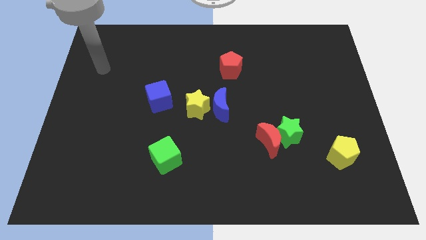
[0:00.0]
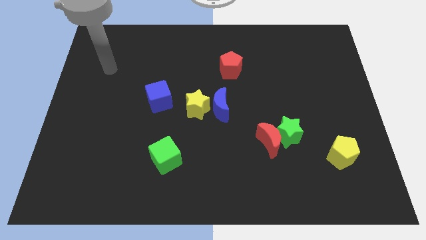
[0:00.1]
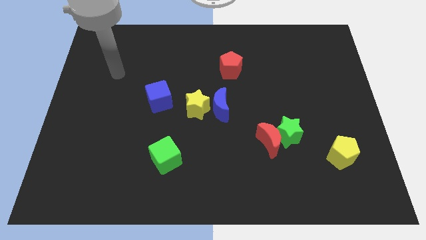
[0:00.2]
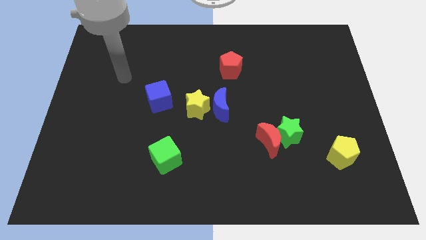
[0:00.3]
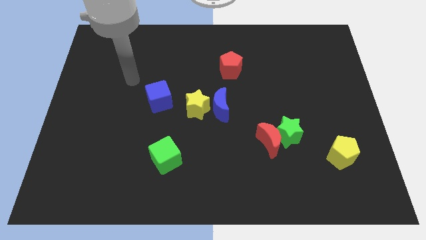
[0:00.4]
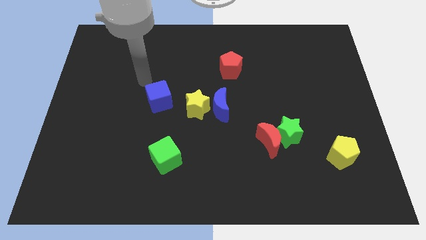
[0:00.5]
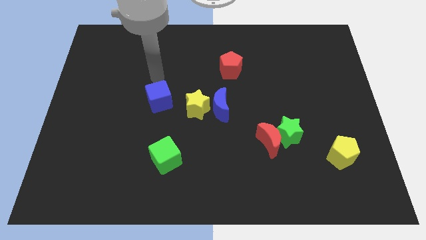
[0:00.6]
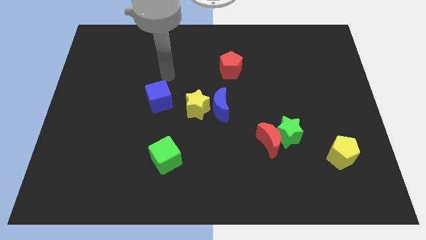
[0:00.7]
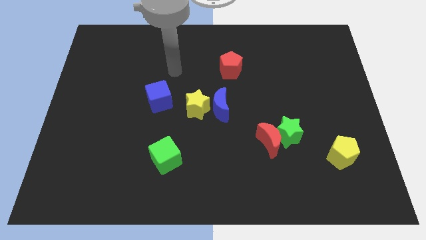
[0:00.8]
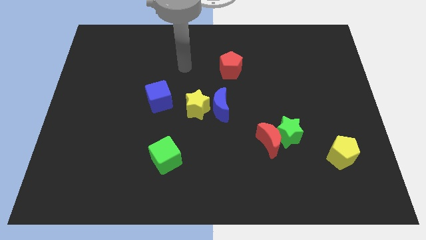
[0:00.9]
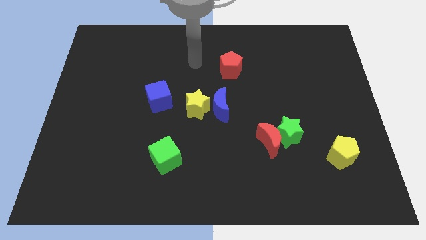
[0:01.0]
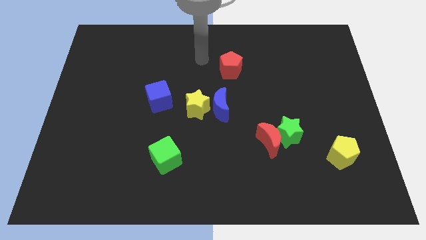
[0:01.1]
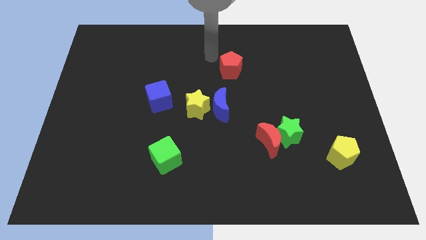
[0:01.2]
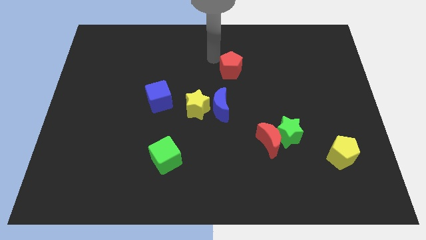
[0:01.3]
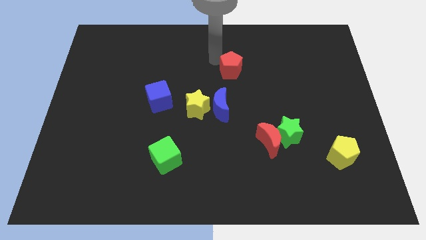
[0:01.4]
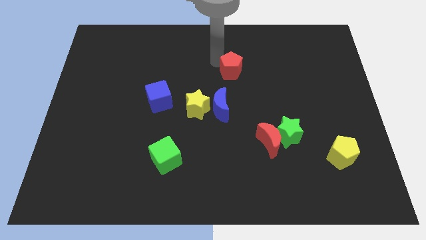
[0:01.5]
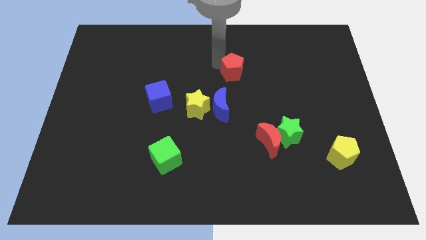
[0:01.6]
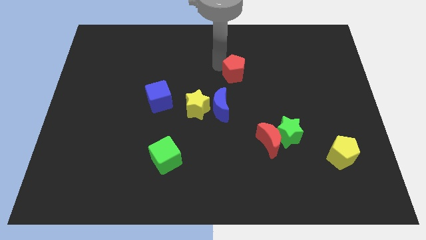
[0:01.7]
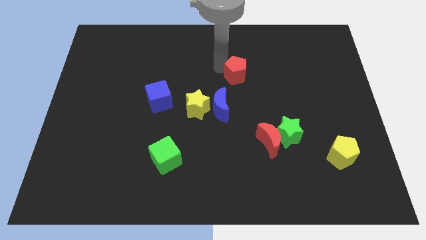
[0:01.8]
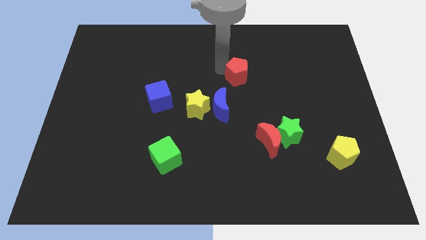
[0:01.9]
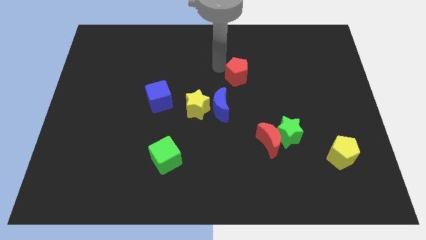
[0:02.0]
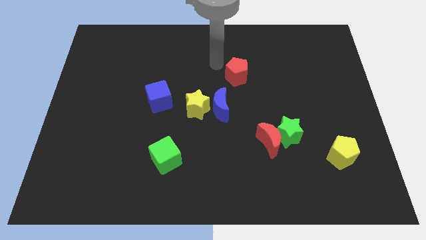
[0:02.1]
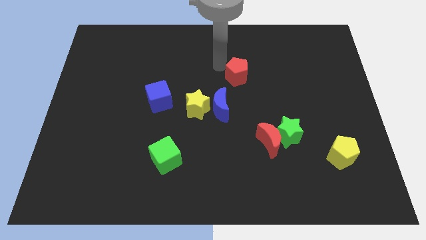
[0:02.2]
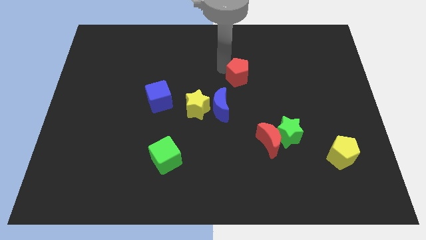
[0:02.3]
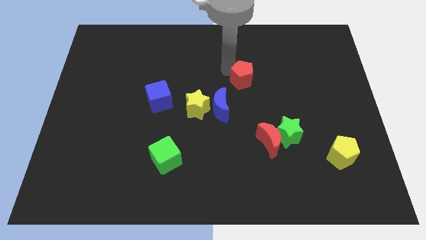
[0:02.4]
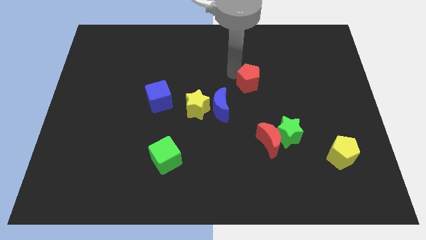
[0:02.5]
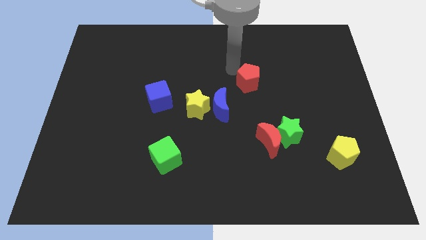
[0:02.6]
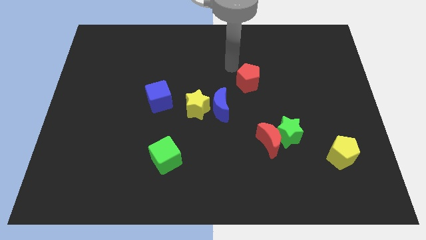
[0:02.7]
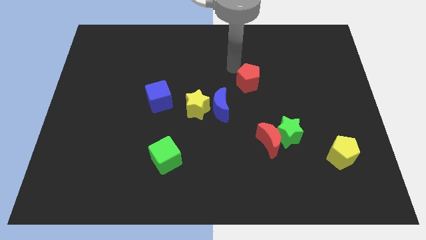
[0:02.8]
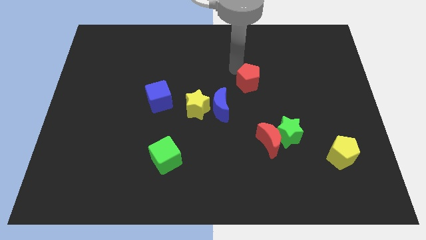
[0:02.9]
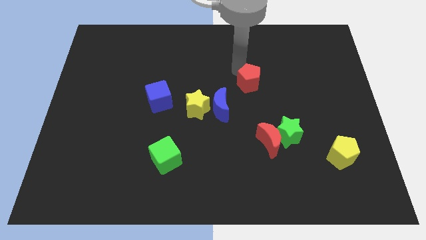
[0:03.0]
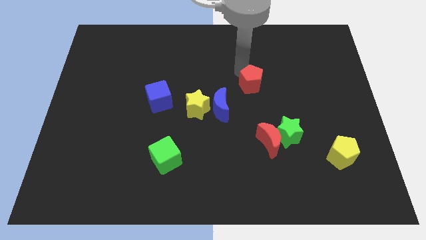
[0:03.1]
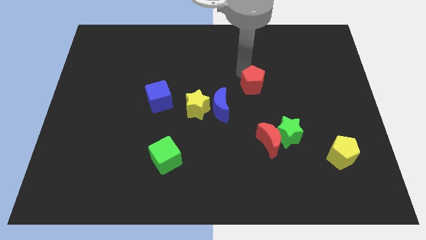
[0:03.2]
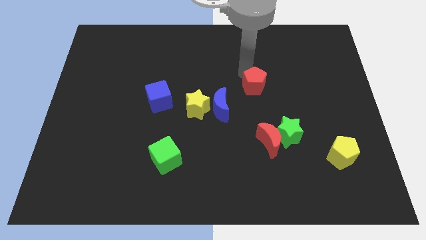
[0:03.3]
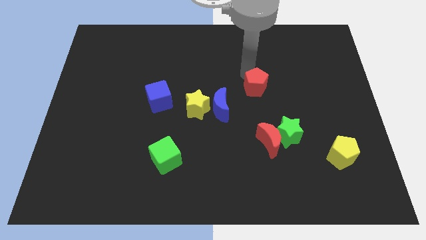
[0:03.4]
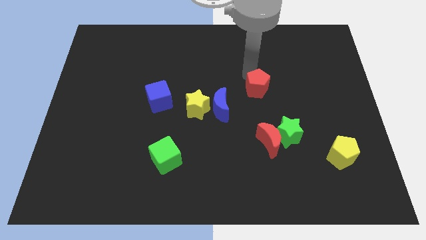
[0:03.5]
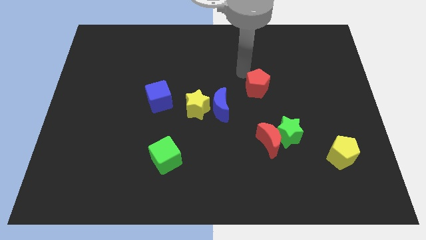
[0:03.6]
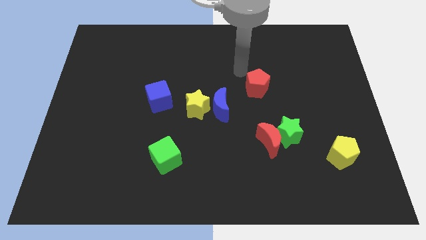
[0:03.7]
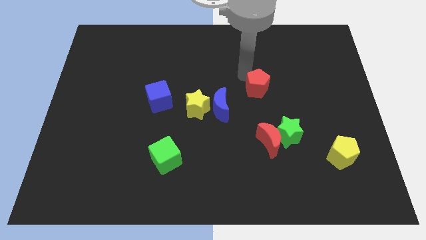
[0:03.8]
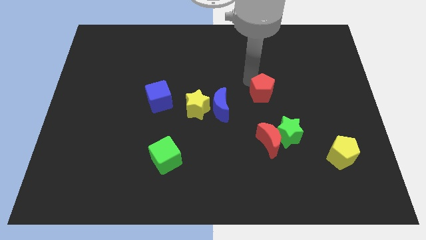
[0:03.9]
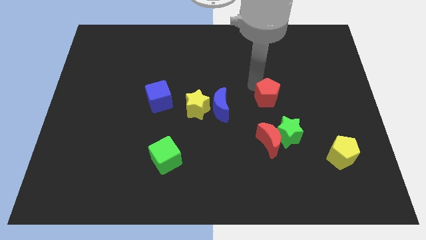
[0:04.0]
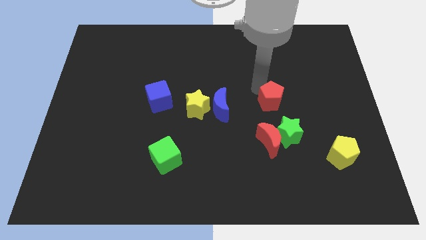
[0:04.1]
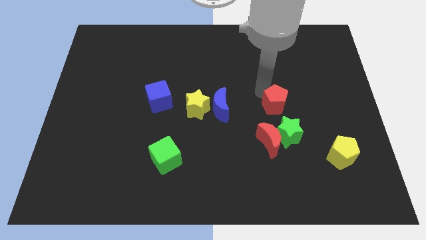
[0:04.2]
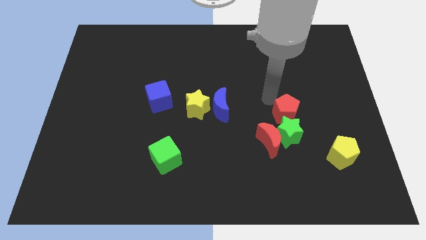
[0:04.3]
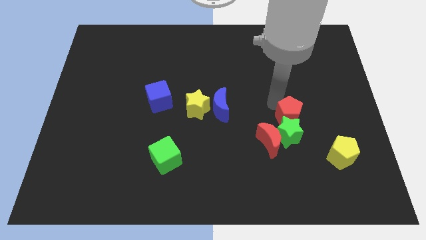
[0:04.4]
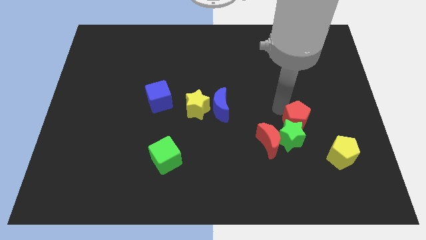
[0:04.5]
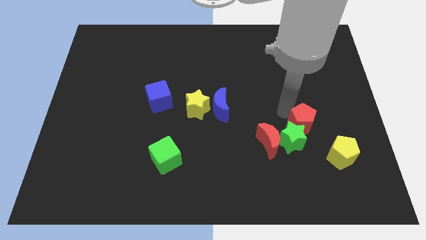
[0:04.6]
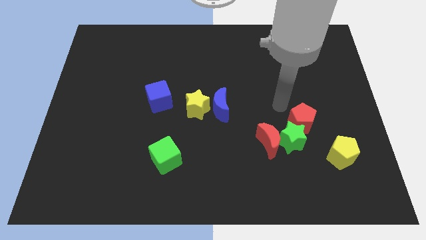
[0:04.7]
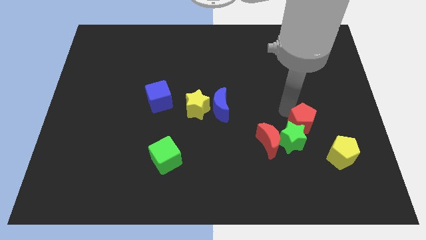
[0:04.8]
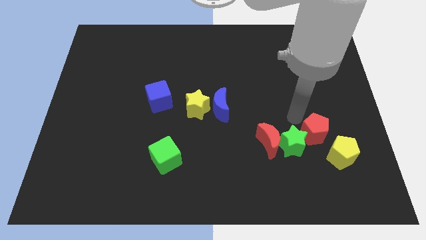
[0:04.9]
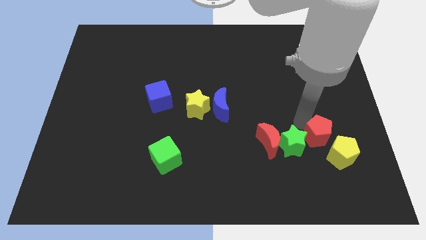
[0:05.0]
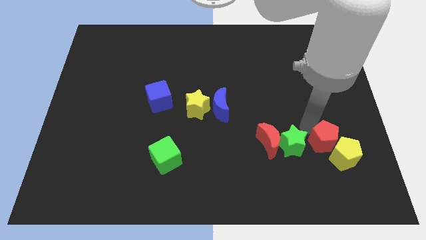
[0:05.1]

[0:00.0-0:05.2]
move the red pentagon close to the yellow pentagon

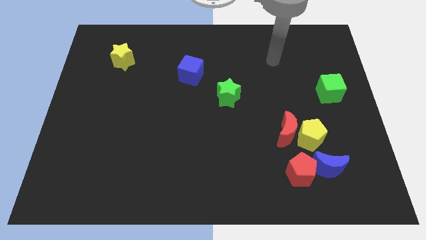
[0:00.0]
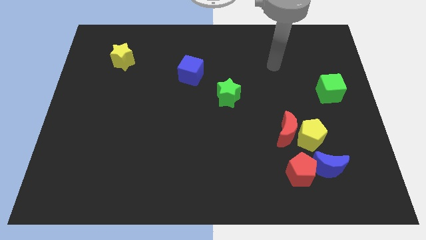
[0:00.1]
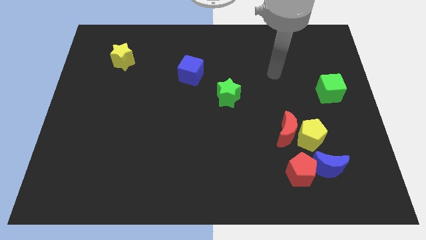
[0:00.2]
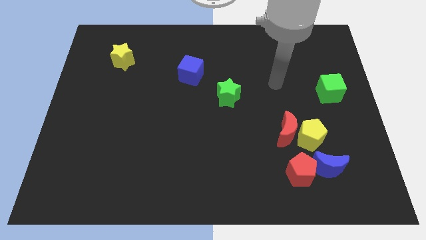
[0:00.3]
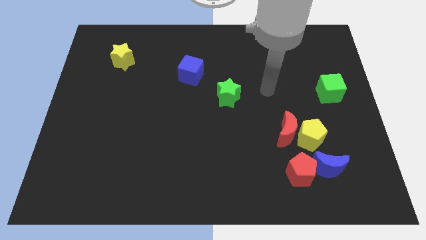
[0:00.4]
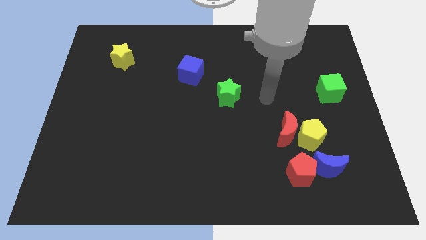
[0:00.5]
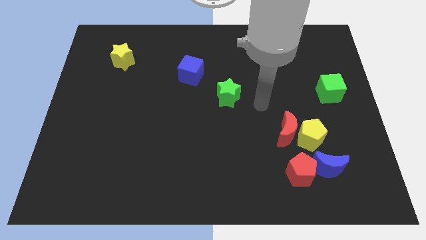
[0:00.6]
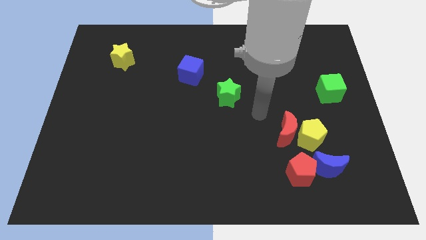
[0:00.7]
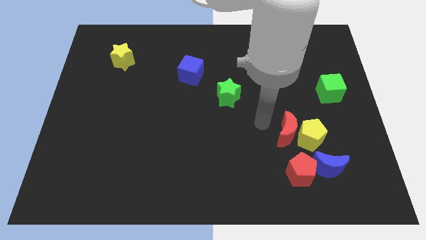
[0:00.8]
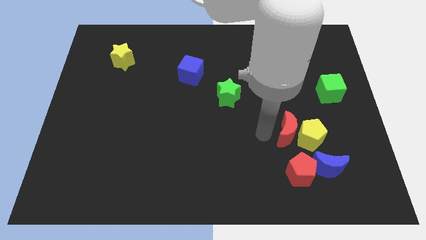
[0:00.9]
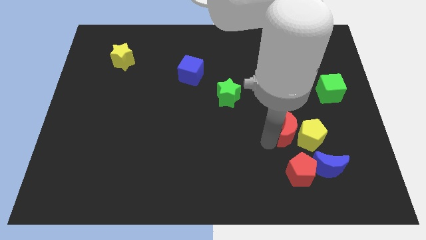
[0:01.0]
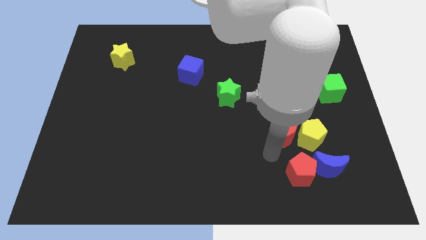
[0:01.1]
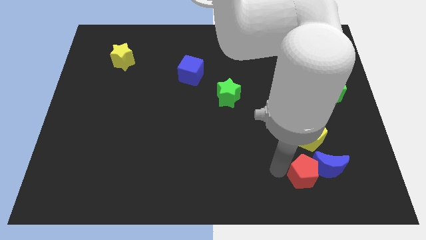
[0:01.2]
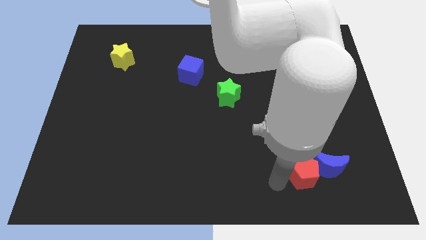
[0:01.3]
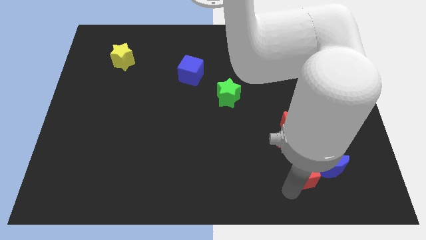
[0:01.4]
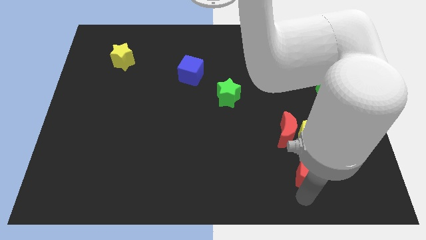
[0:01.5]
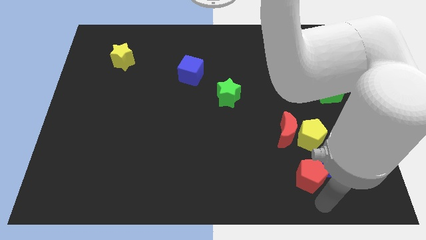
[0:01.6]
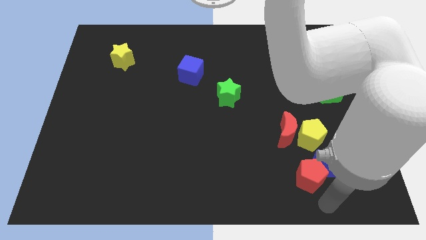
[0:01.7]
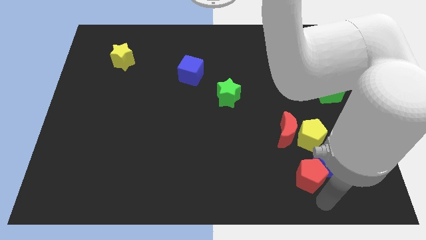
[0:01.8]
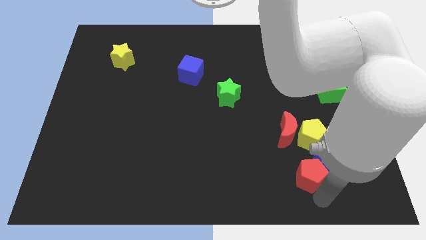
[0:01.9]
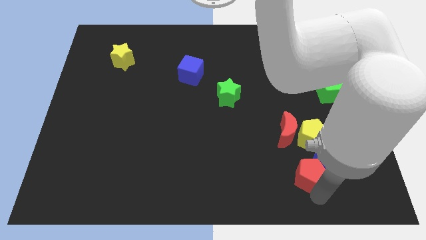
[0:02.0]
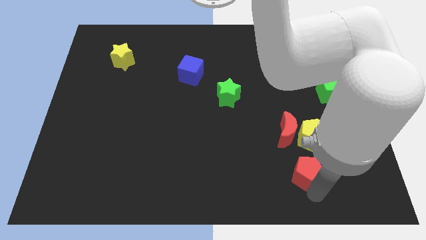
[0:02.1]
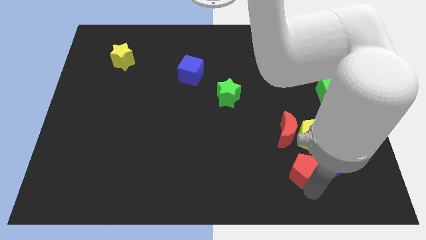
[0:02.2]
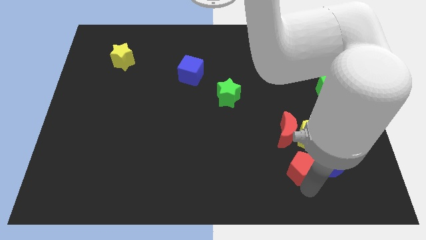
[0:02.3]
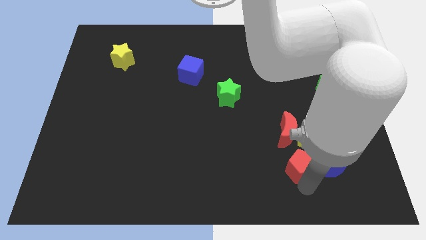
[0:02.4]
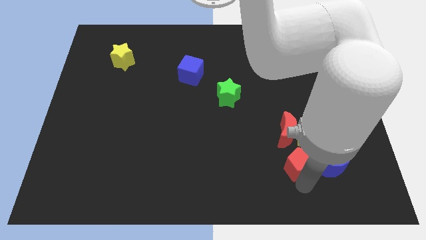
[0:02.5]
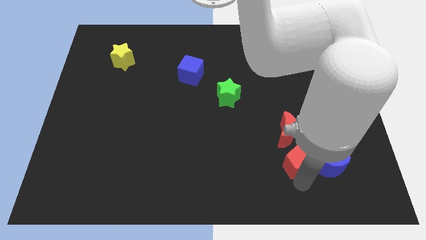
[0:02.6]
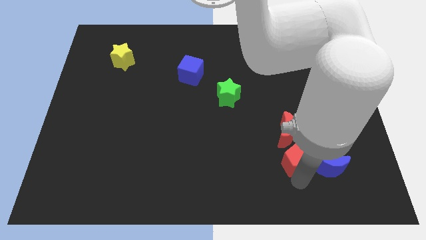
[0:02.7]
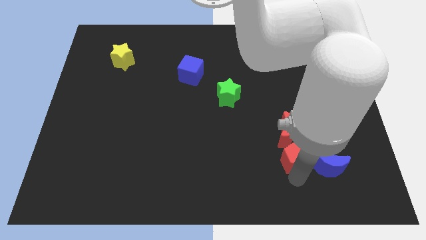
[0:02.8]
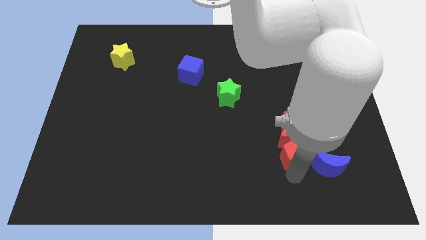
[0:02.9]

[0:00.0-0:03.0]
slide the red pentagon towards the red moon
